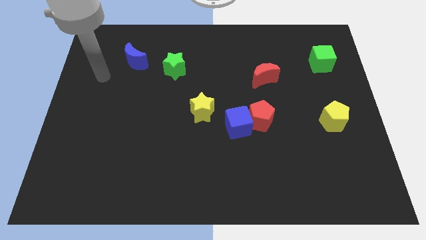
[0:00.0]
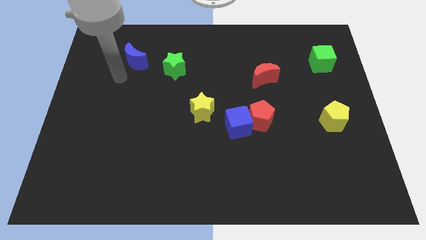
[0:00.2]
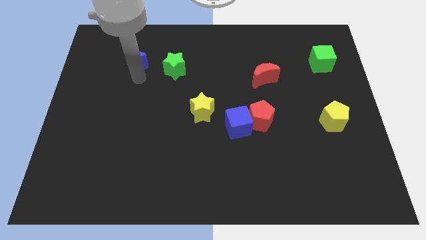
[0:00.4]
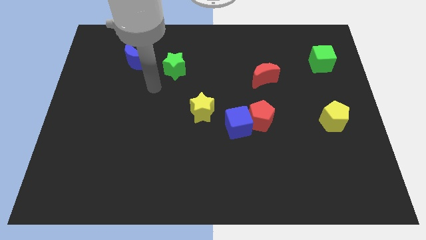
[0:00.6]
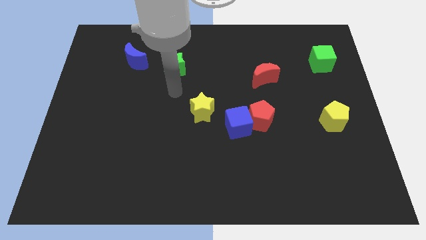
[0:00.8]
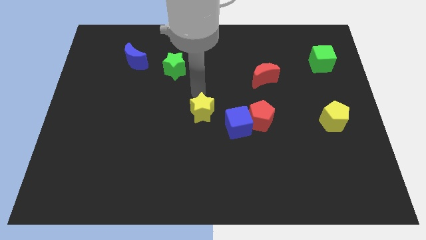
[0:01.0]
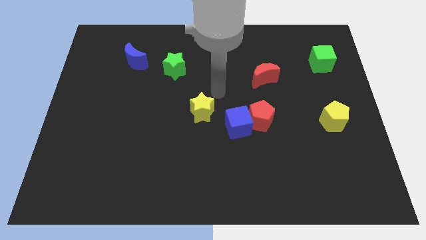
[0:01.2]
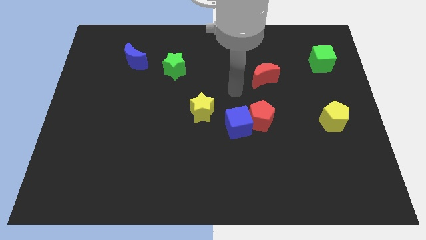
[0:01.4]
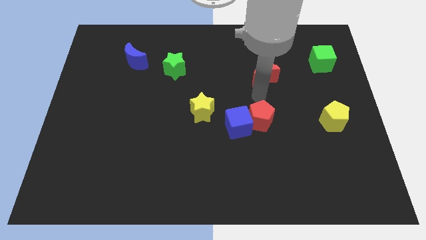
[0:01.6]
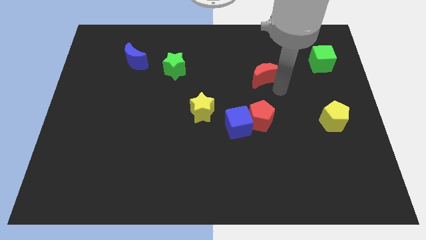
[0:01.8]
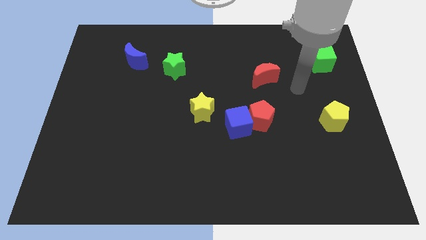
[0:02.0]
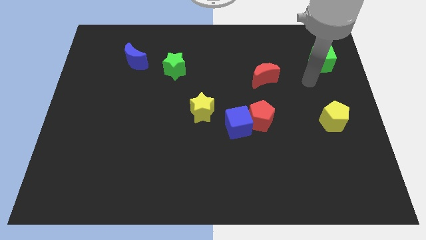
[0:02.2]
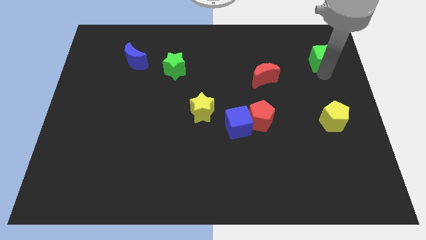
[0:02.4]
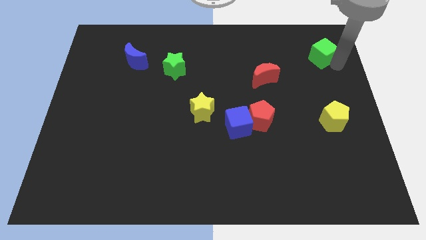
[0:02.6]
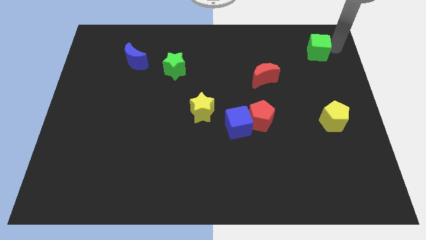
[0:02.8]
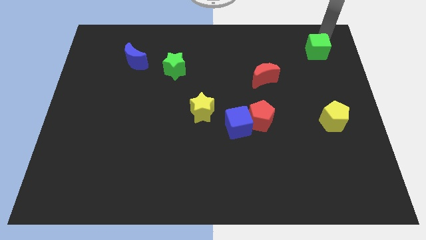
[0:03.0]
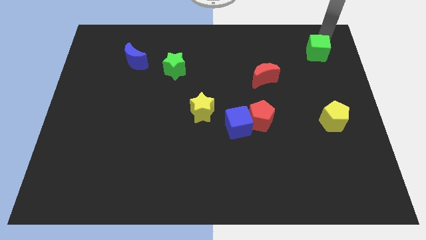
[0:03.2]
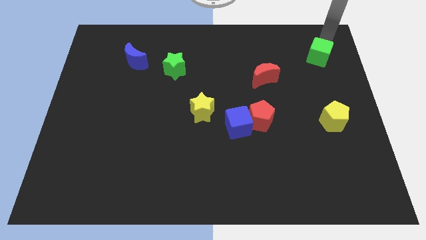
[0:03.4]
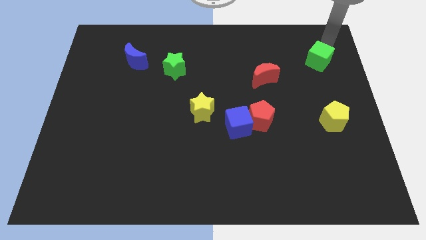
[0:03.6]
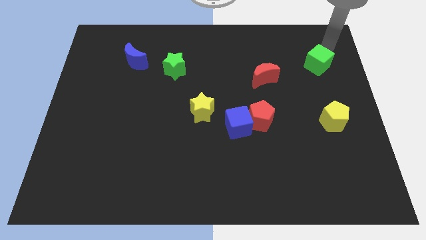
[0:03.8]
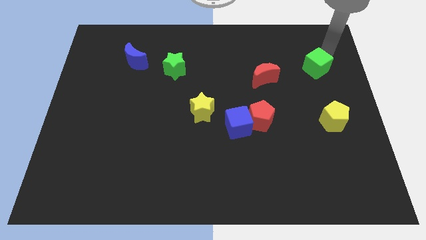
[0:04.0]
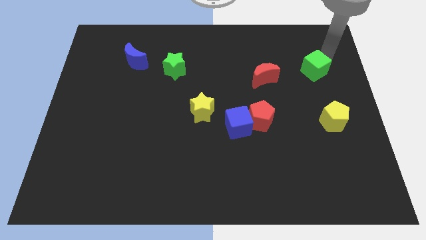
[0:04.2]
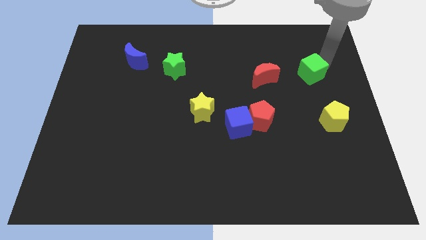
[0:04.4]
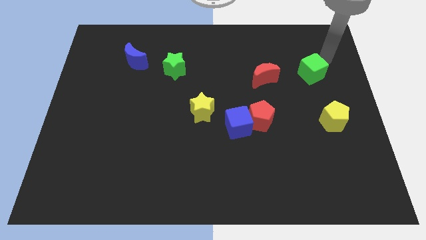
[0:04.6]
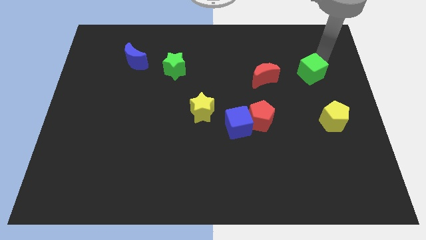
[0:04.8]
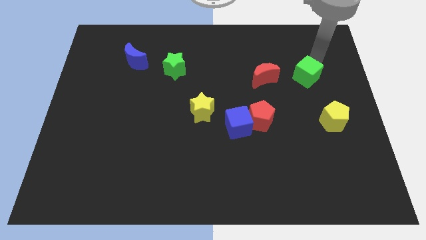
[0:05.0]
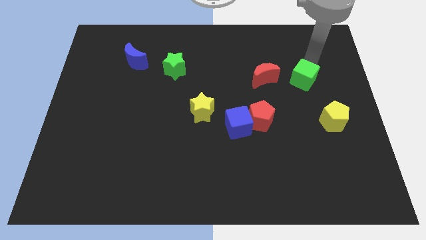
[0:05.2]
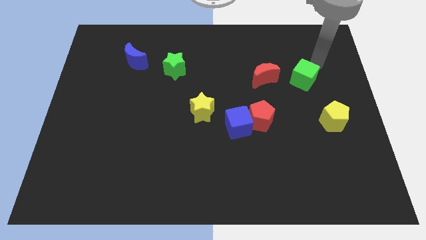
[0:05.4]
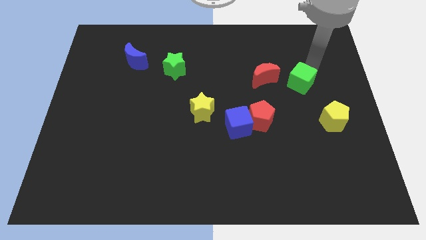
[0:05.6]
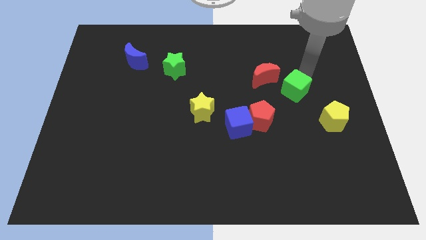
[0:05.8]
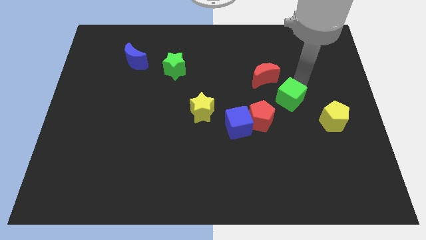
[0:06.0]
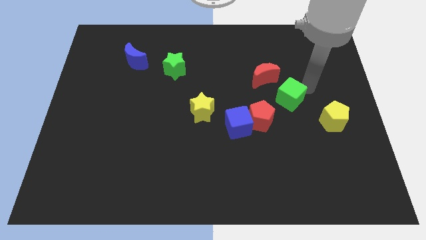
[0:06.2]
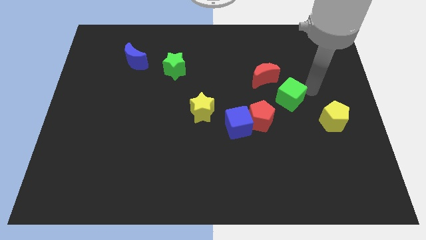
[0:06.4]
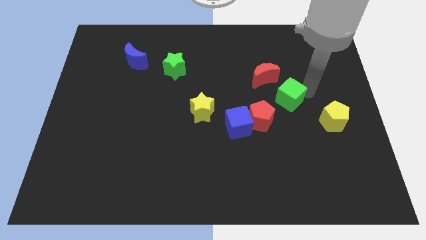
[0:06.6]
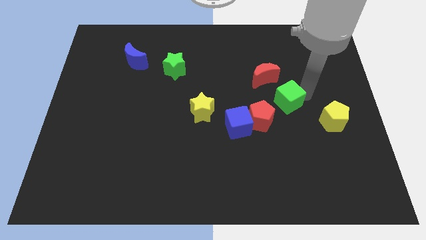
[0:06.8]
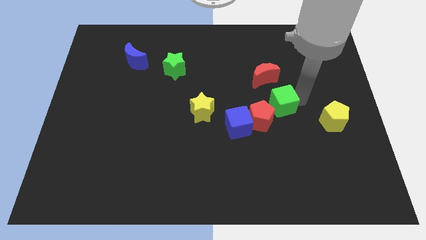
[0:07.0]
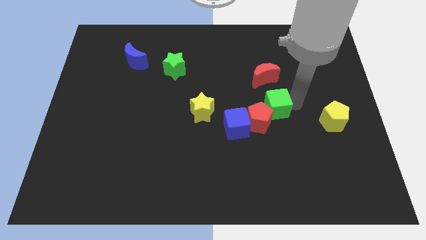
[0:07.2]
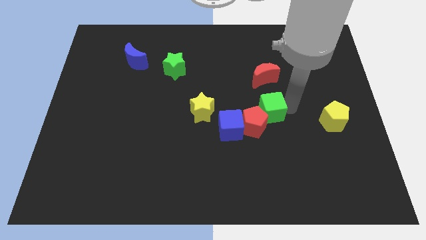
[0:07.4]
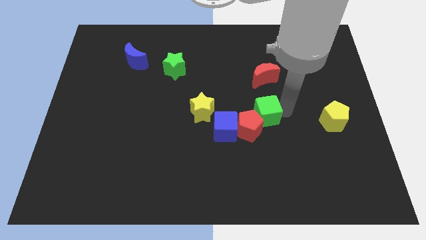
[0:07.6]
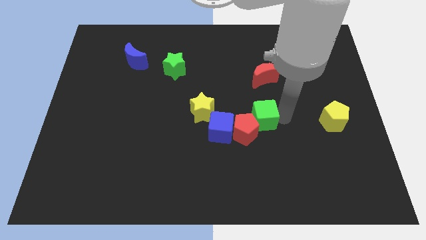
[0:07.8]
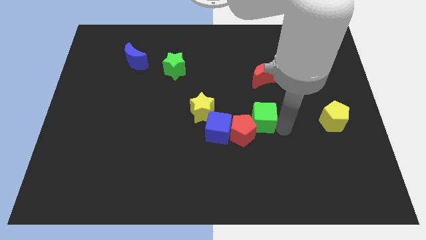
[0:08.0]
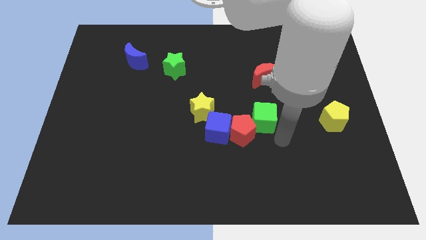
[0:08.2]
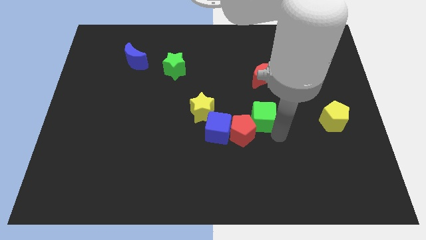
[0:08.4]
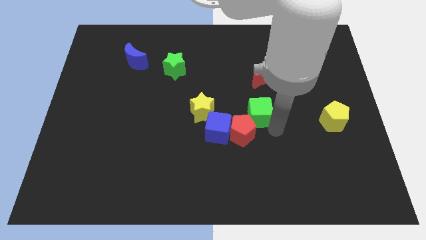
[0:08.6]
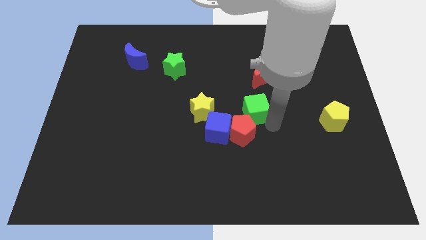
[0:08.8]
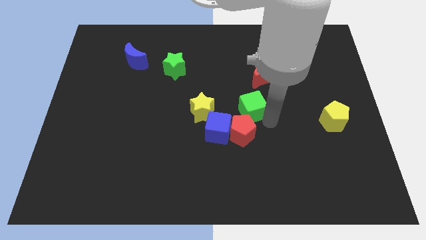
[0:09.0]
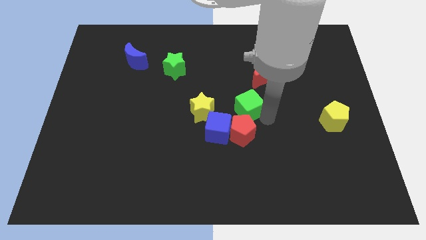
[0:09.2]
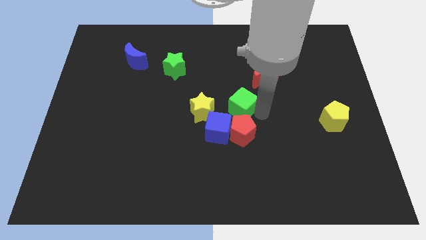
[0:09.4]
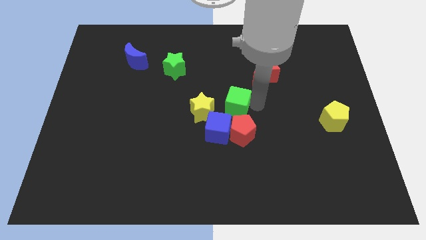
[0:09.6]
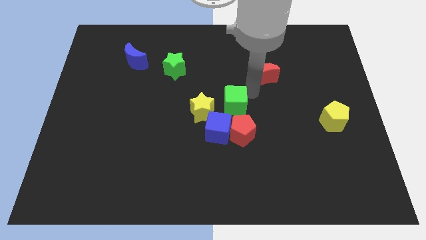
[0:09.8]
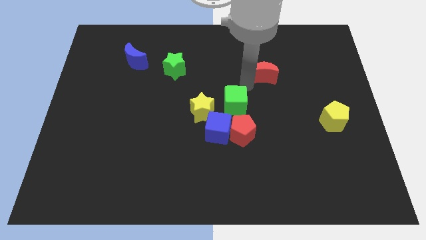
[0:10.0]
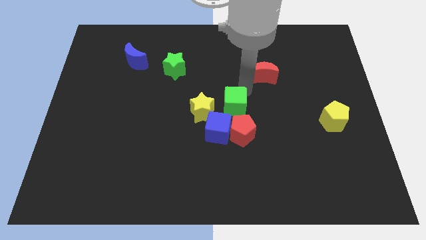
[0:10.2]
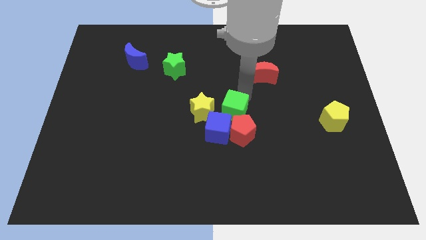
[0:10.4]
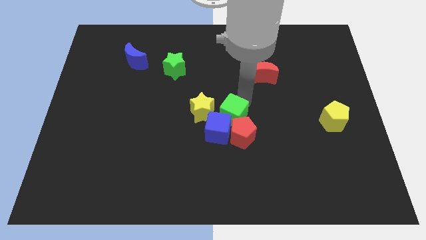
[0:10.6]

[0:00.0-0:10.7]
slide the green cube to the blue cube

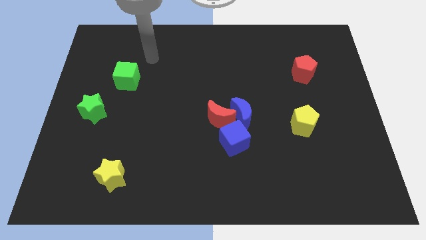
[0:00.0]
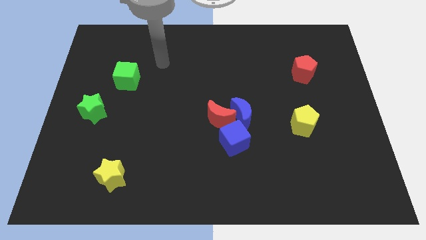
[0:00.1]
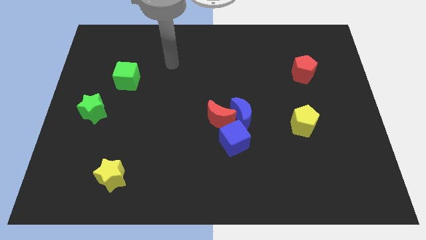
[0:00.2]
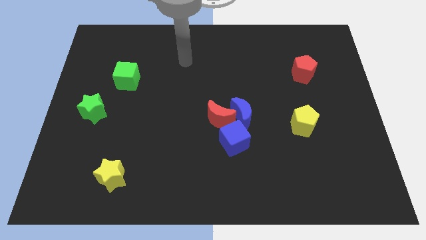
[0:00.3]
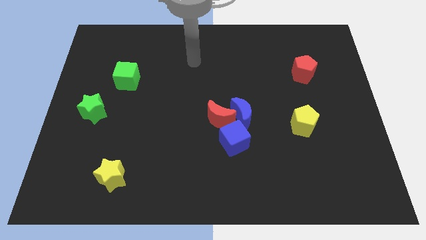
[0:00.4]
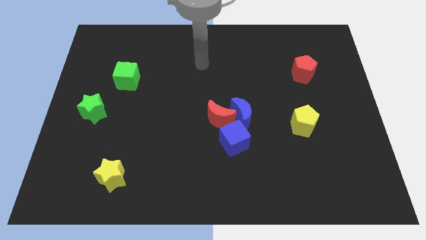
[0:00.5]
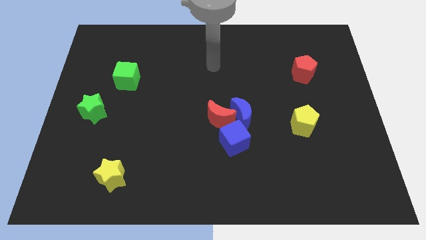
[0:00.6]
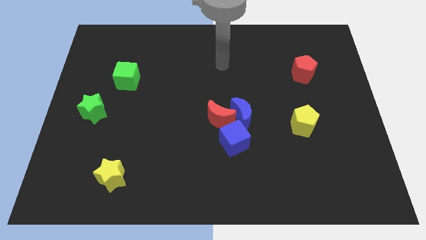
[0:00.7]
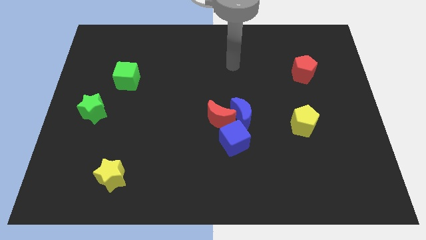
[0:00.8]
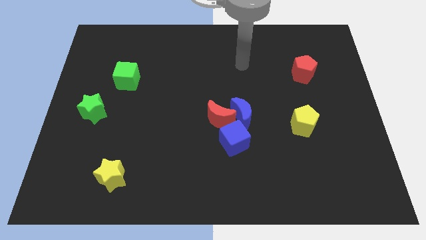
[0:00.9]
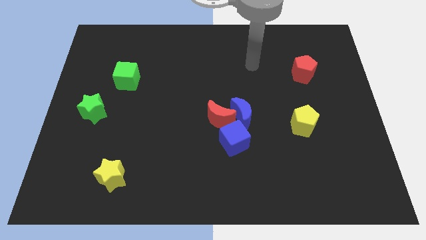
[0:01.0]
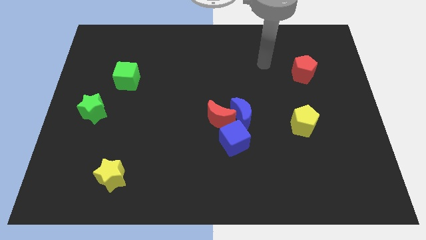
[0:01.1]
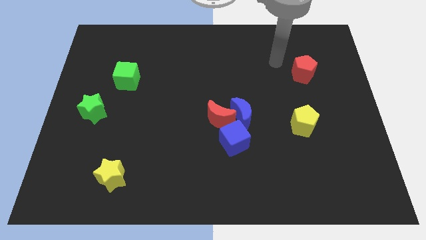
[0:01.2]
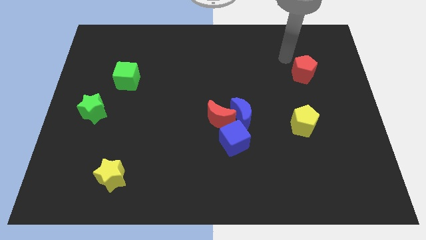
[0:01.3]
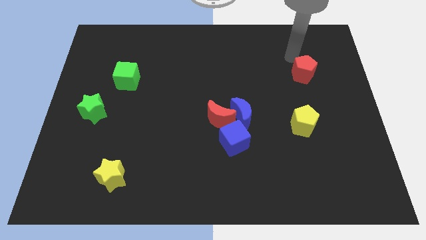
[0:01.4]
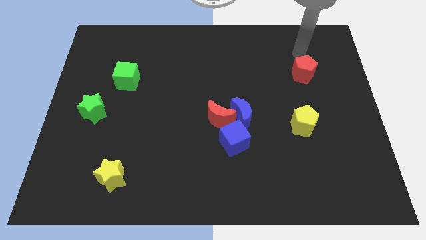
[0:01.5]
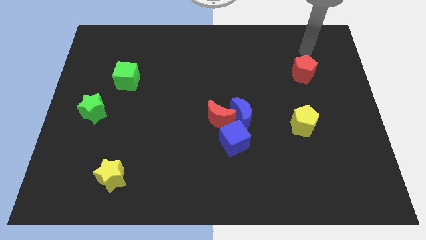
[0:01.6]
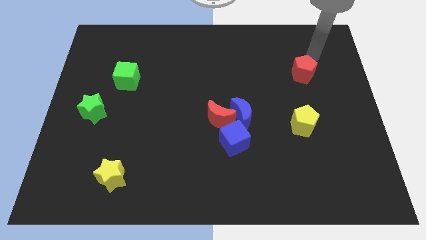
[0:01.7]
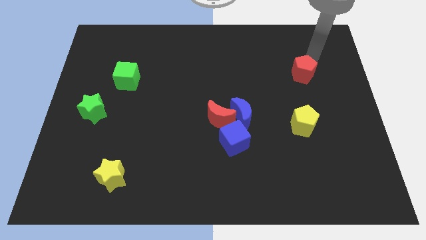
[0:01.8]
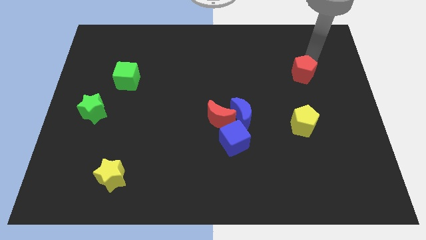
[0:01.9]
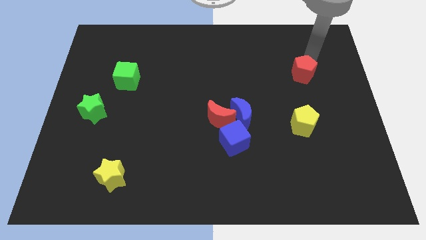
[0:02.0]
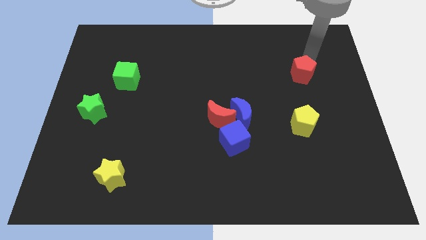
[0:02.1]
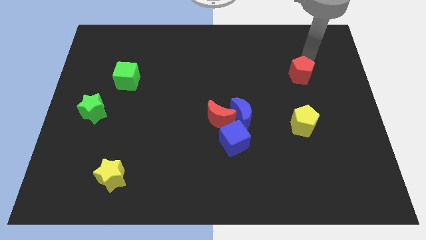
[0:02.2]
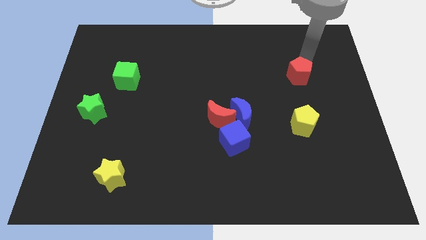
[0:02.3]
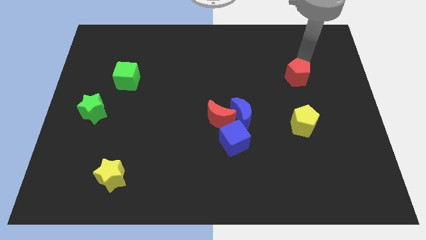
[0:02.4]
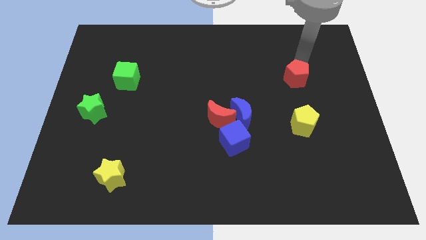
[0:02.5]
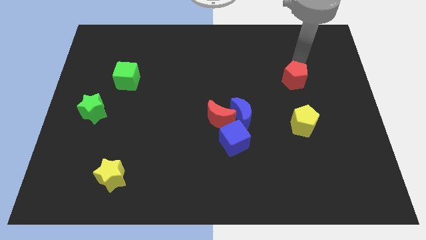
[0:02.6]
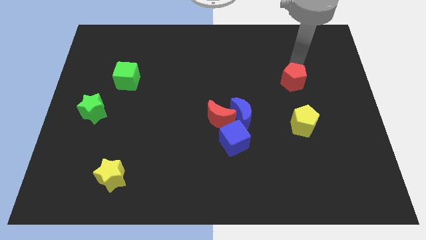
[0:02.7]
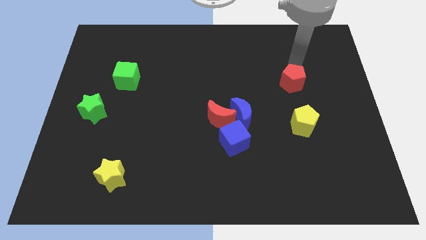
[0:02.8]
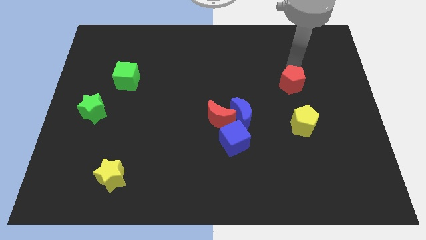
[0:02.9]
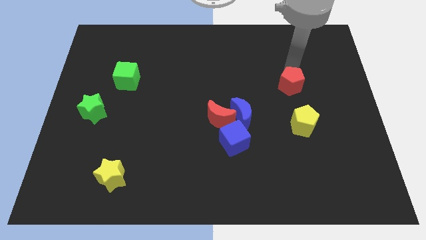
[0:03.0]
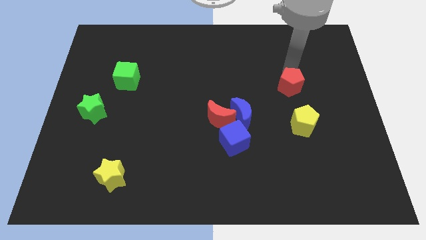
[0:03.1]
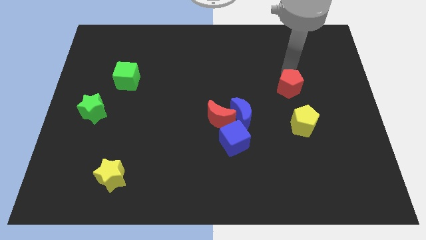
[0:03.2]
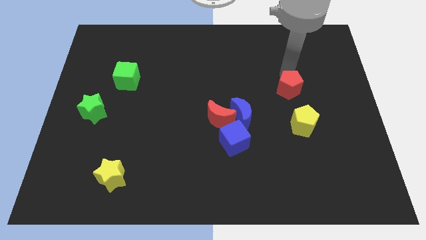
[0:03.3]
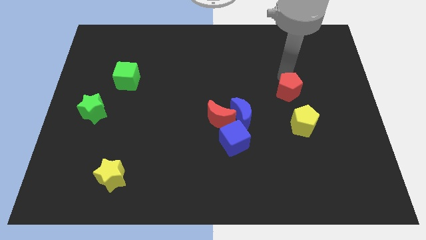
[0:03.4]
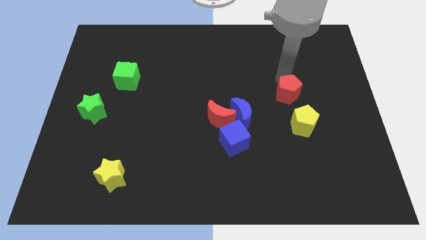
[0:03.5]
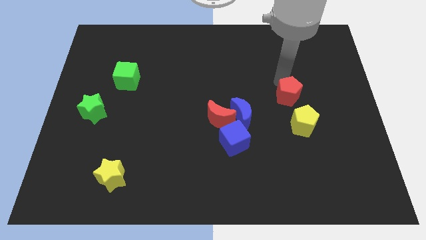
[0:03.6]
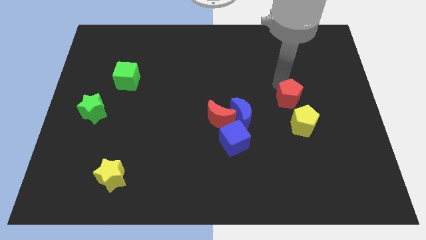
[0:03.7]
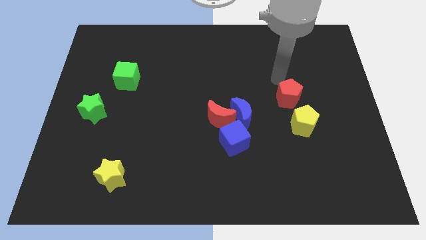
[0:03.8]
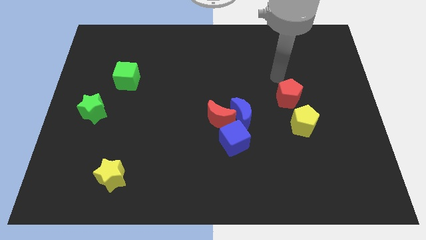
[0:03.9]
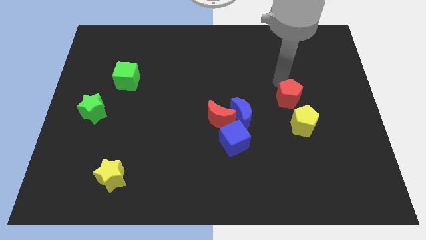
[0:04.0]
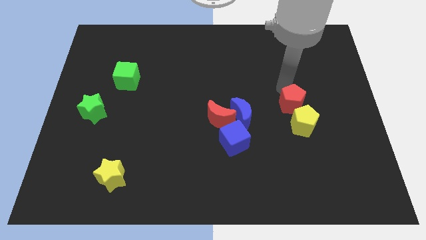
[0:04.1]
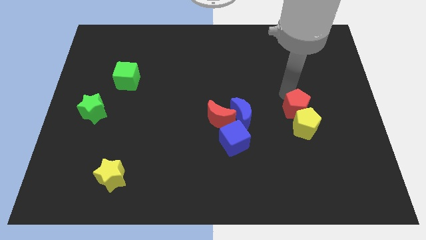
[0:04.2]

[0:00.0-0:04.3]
push the red pentagon to the yellow pentagon
